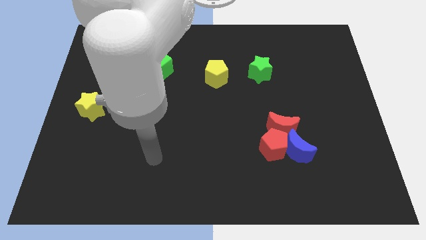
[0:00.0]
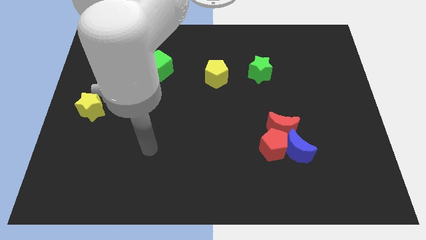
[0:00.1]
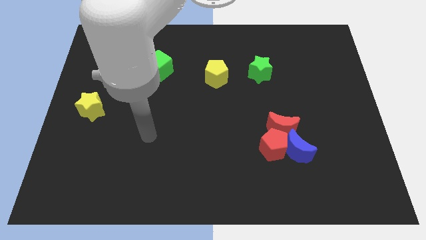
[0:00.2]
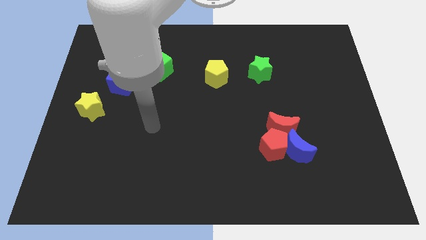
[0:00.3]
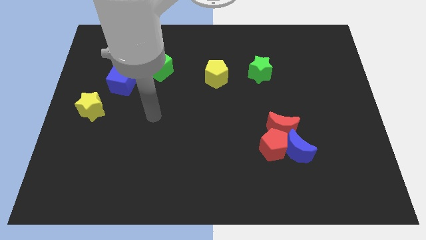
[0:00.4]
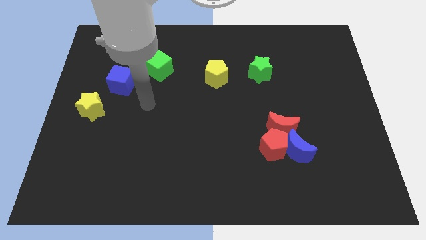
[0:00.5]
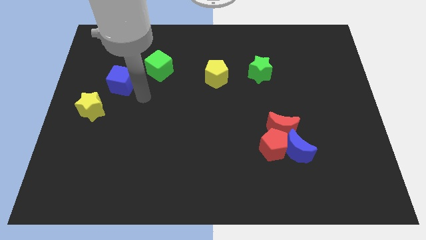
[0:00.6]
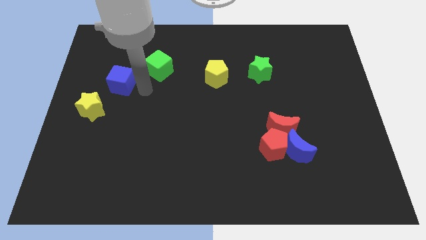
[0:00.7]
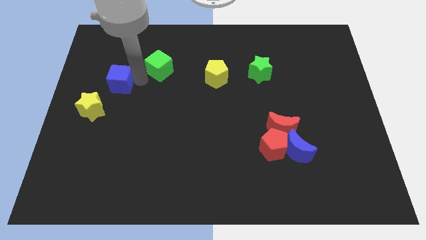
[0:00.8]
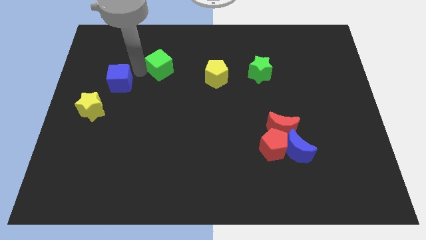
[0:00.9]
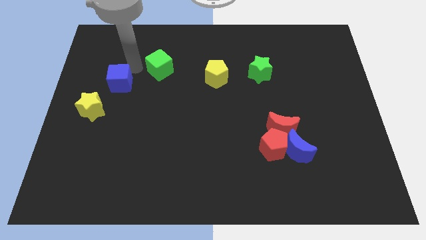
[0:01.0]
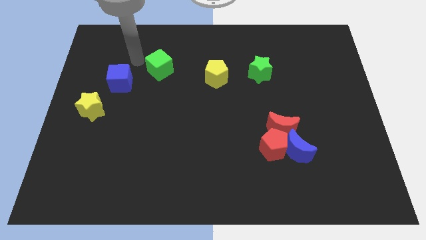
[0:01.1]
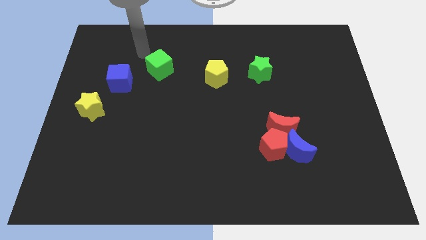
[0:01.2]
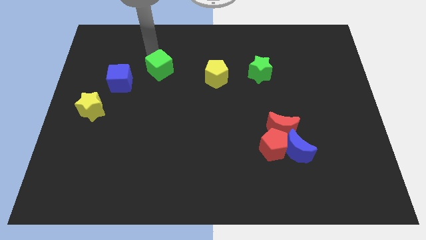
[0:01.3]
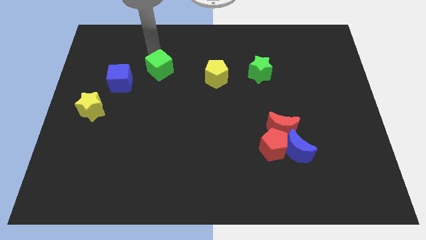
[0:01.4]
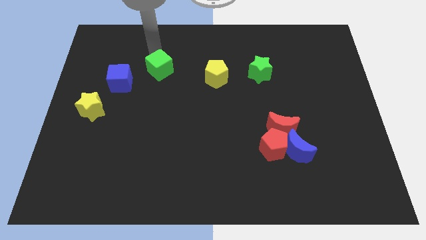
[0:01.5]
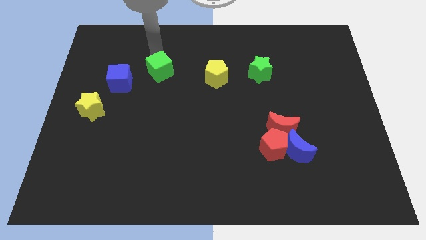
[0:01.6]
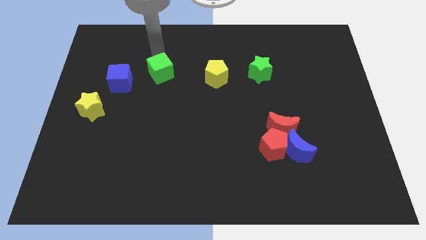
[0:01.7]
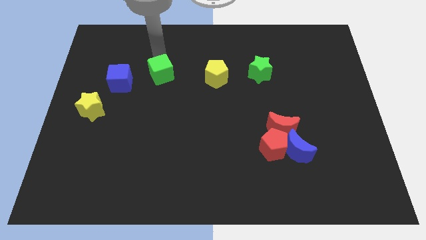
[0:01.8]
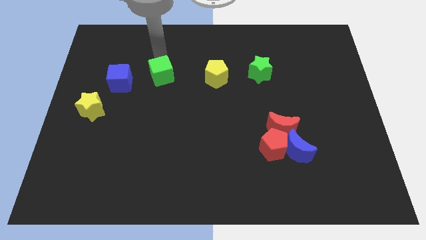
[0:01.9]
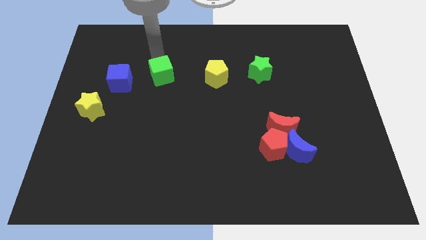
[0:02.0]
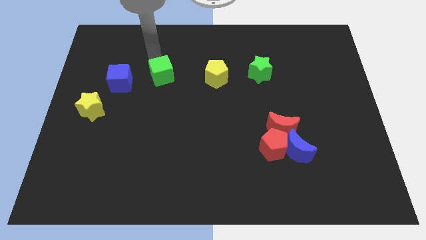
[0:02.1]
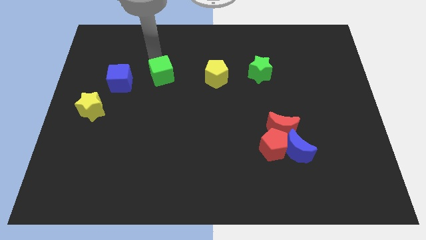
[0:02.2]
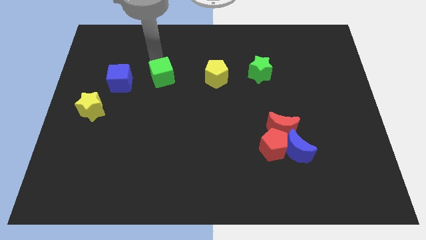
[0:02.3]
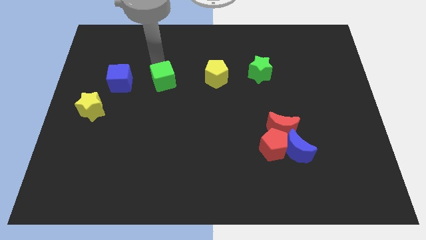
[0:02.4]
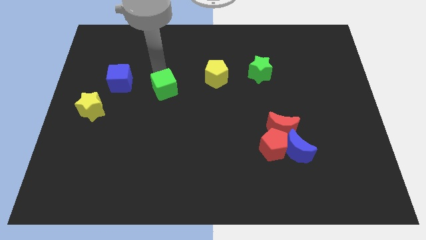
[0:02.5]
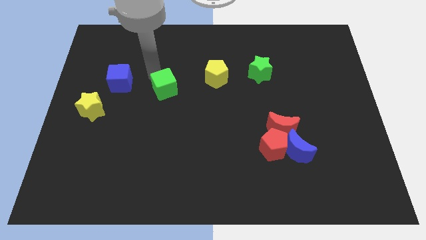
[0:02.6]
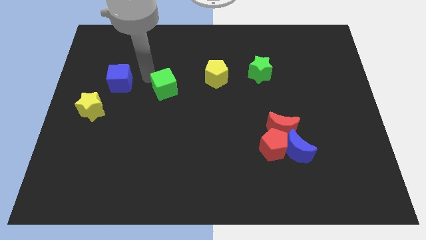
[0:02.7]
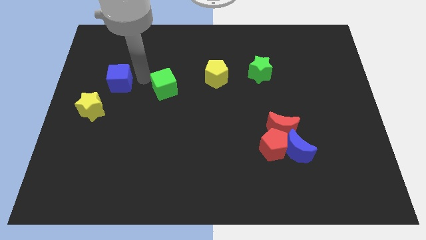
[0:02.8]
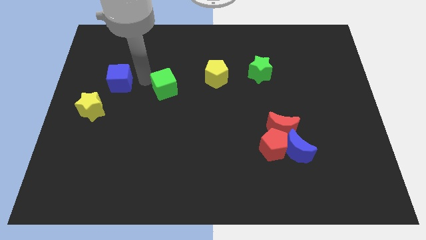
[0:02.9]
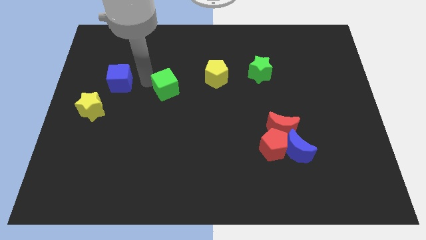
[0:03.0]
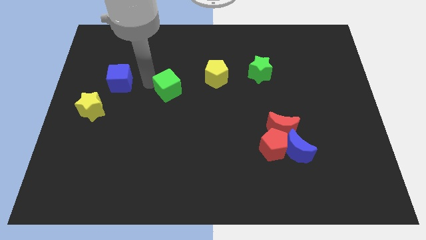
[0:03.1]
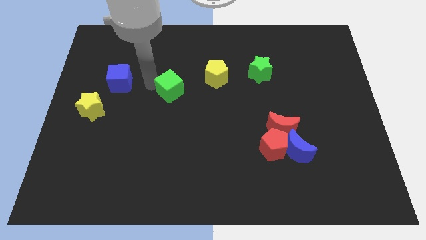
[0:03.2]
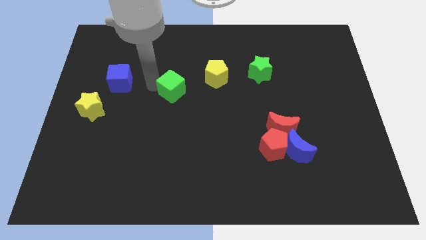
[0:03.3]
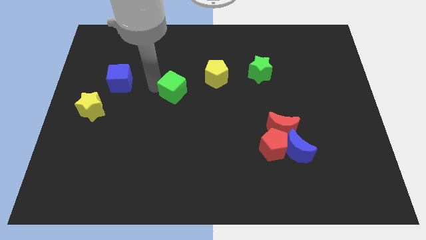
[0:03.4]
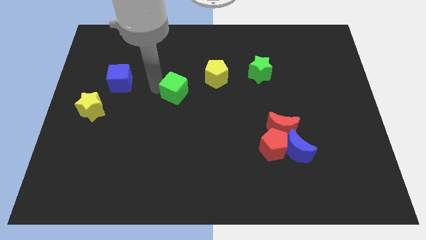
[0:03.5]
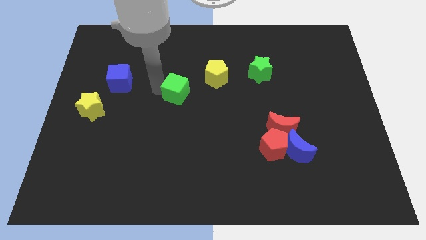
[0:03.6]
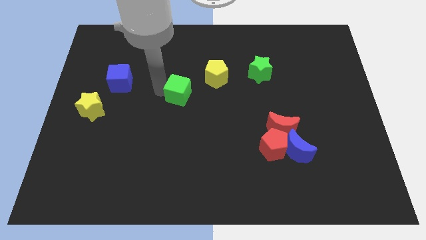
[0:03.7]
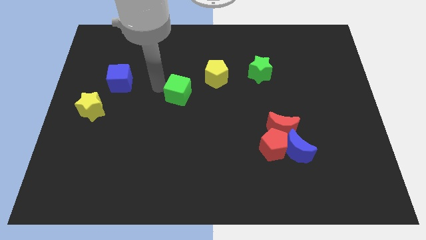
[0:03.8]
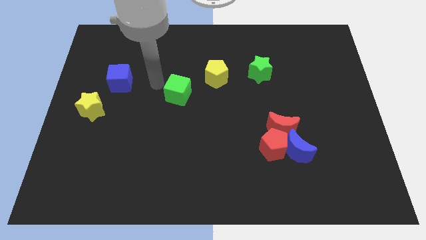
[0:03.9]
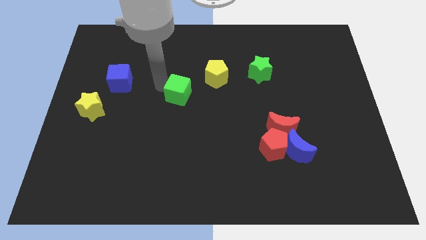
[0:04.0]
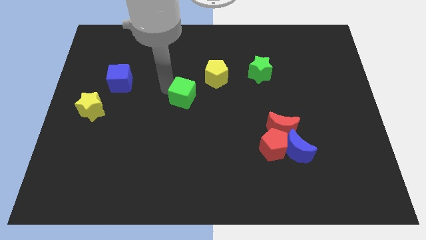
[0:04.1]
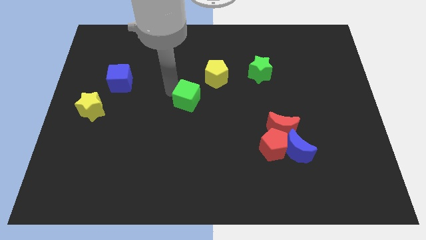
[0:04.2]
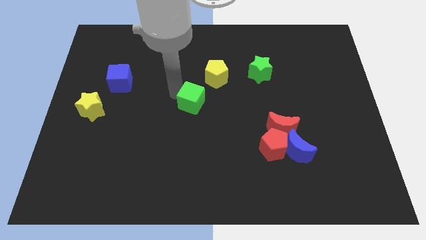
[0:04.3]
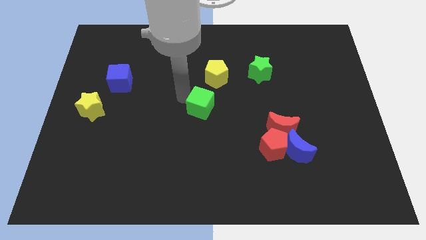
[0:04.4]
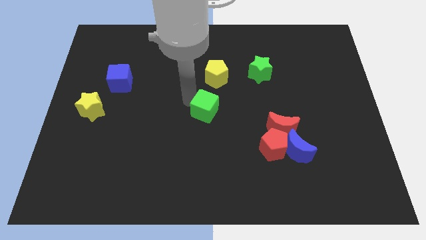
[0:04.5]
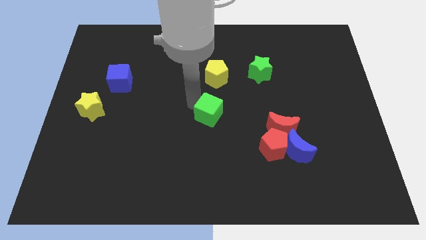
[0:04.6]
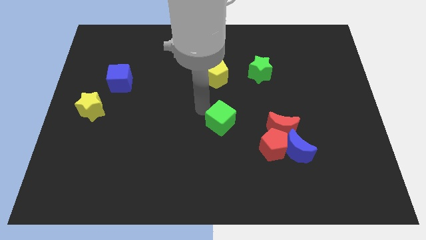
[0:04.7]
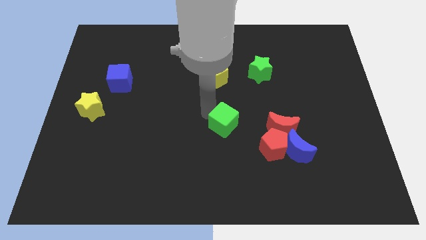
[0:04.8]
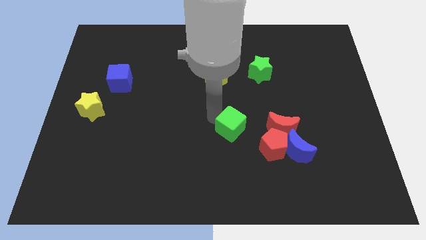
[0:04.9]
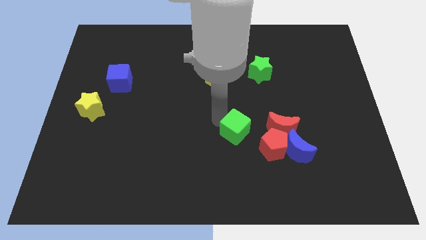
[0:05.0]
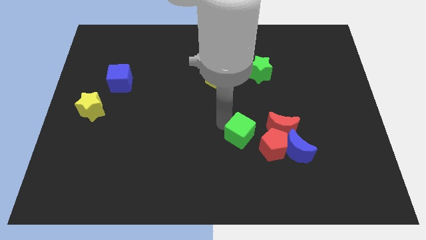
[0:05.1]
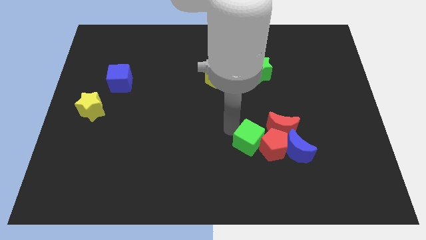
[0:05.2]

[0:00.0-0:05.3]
move the green cube close to the red pentagon

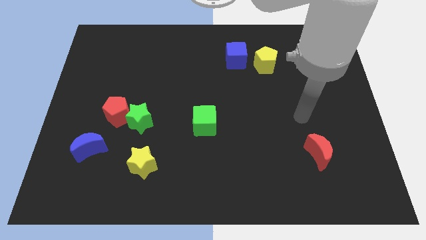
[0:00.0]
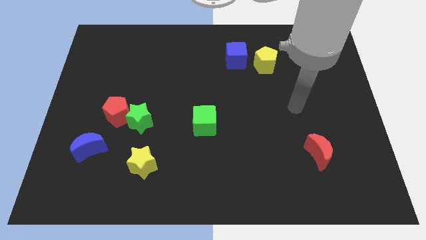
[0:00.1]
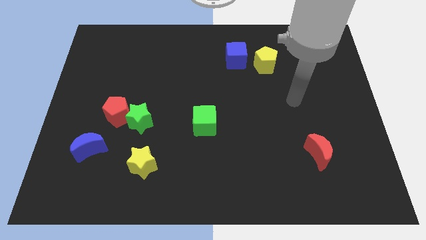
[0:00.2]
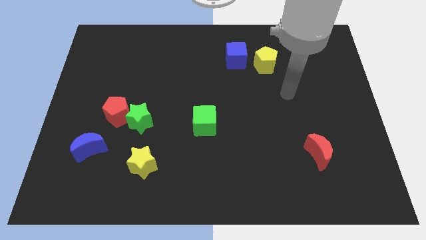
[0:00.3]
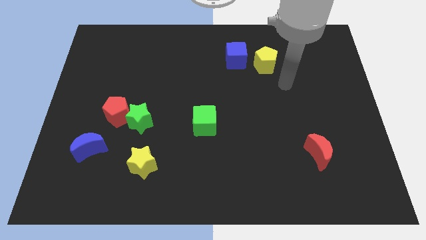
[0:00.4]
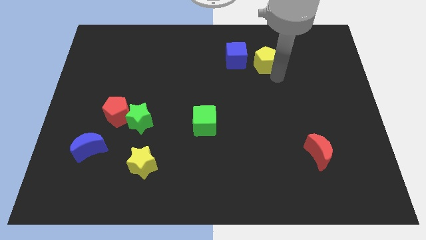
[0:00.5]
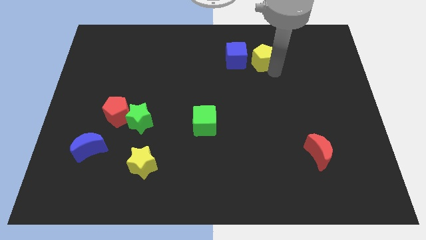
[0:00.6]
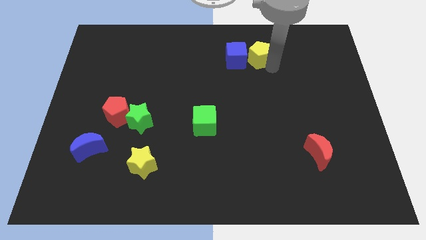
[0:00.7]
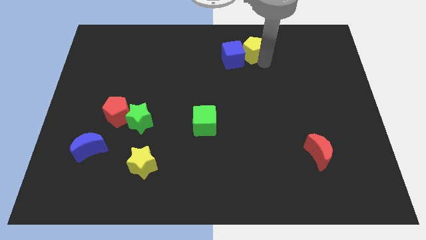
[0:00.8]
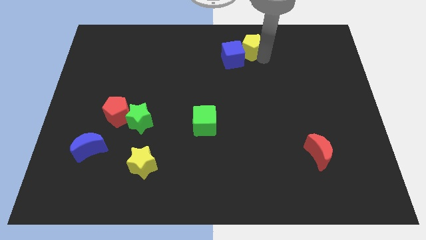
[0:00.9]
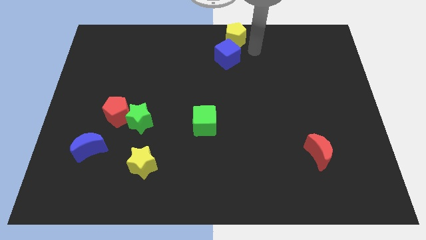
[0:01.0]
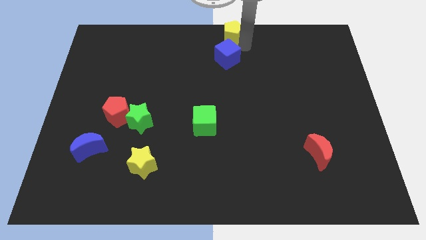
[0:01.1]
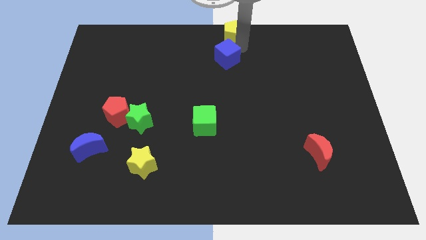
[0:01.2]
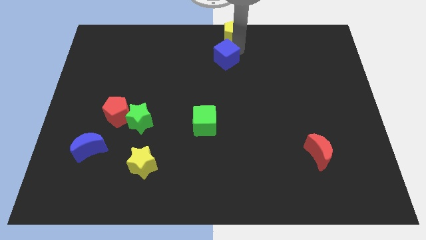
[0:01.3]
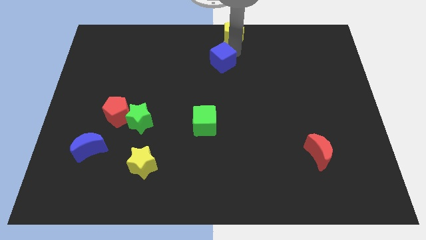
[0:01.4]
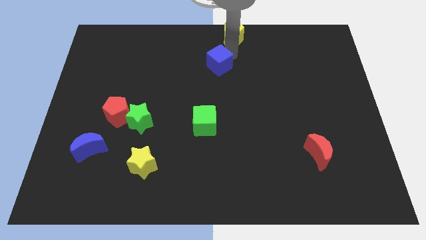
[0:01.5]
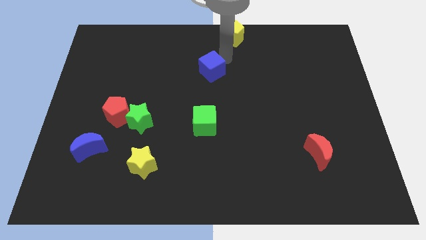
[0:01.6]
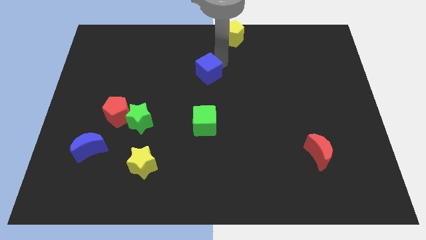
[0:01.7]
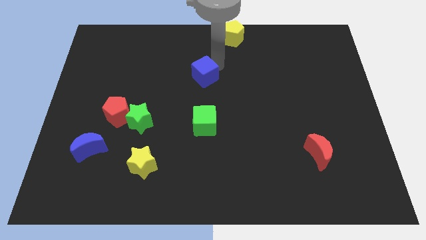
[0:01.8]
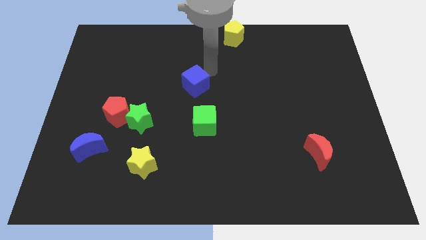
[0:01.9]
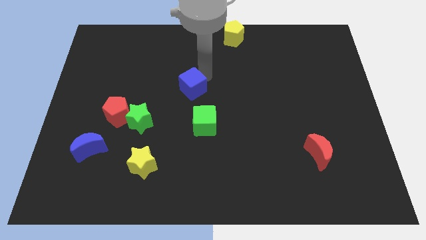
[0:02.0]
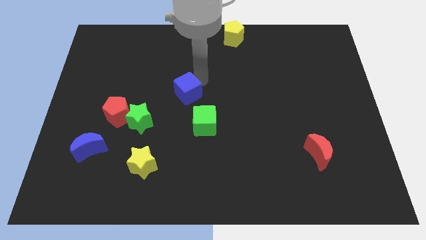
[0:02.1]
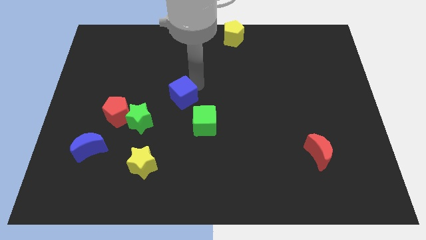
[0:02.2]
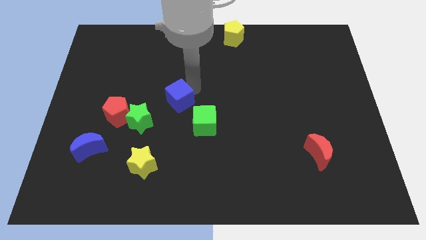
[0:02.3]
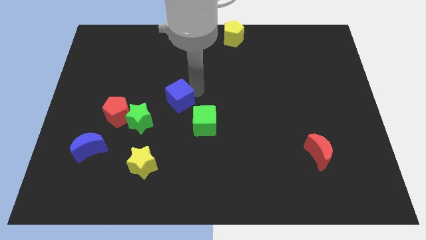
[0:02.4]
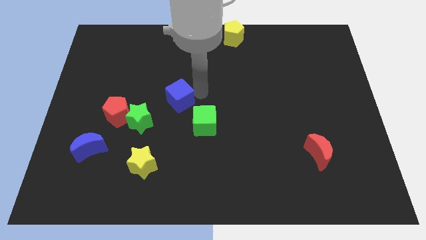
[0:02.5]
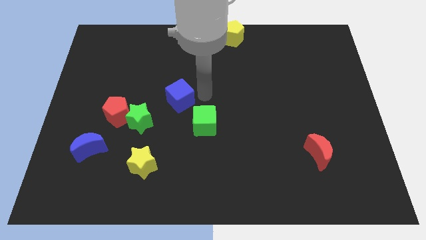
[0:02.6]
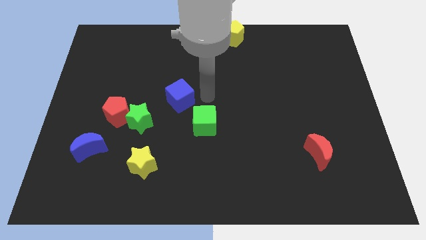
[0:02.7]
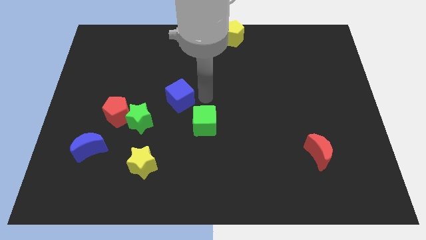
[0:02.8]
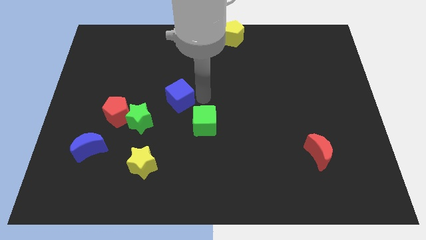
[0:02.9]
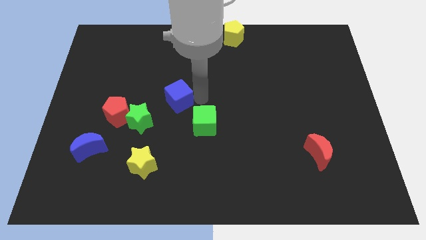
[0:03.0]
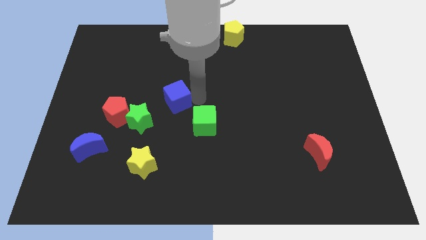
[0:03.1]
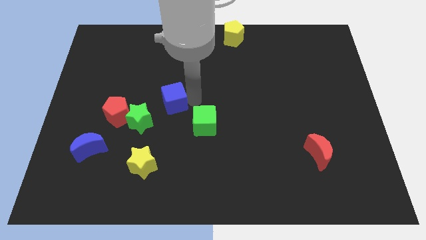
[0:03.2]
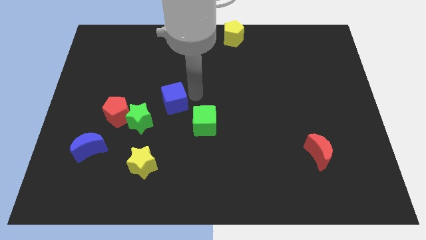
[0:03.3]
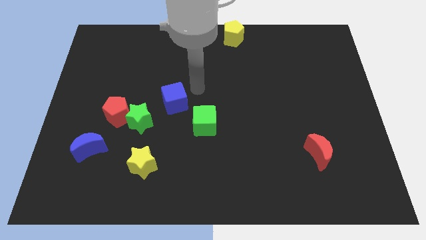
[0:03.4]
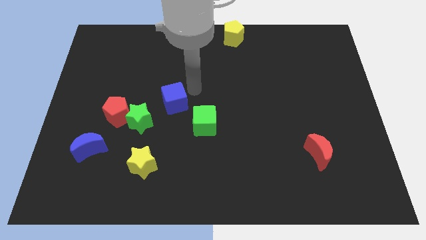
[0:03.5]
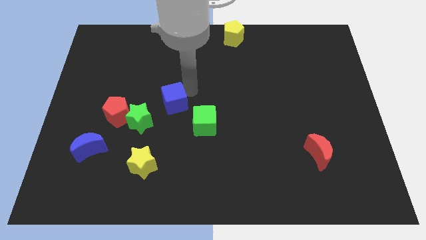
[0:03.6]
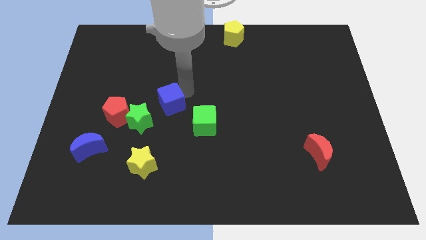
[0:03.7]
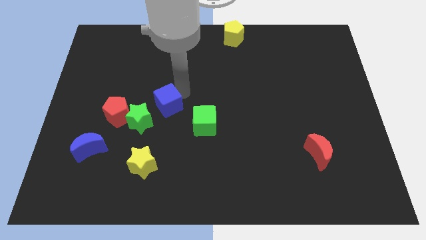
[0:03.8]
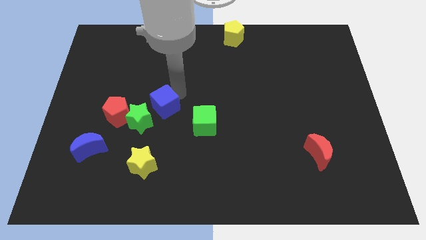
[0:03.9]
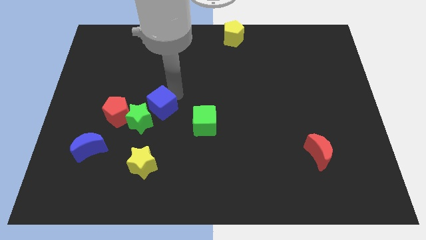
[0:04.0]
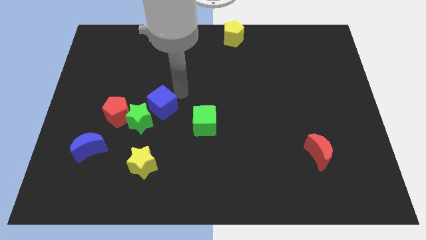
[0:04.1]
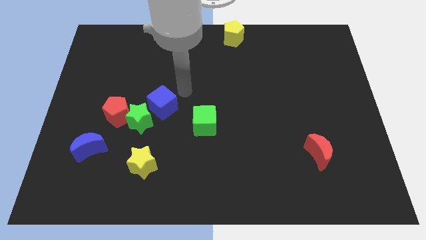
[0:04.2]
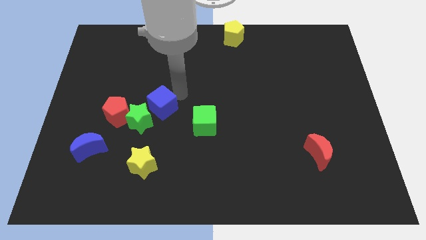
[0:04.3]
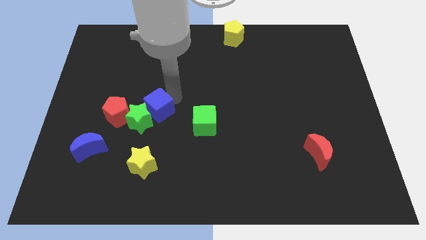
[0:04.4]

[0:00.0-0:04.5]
push the blue cube to the green star
